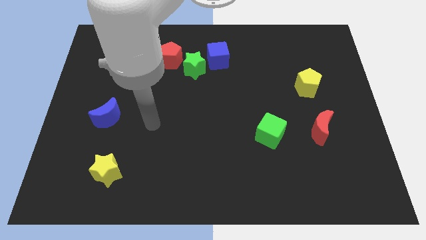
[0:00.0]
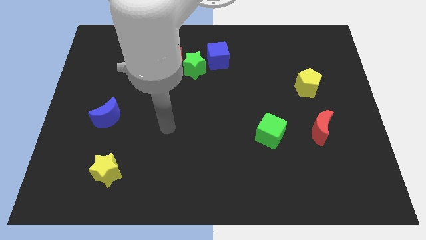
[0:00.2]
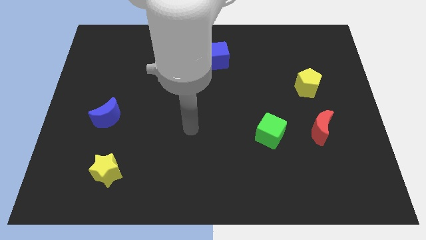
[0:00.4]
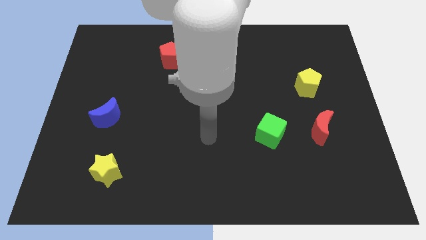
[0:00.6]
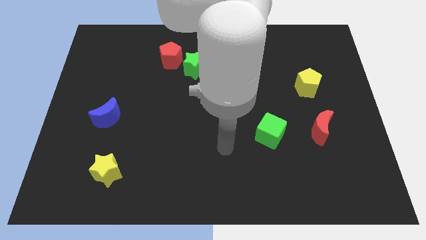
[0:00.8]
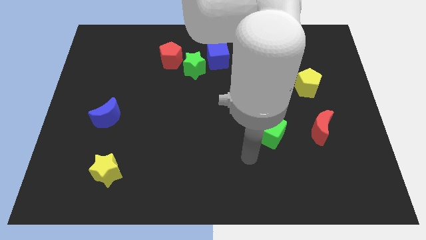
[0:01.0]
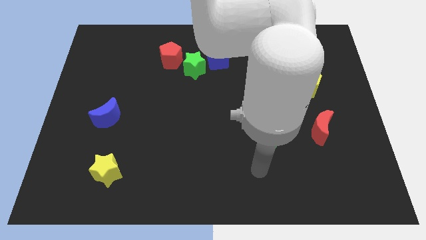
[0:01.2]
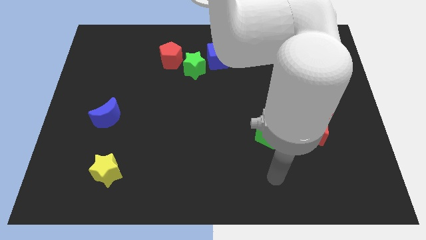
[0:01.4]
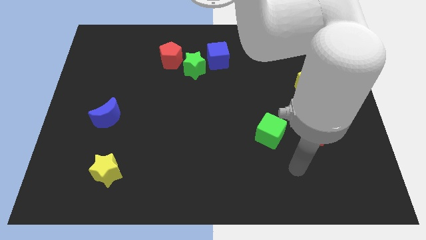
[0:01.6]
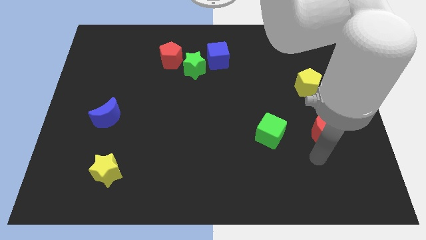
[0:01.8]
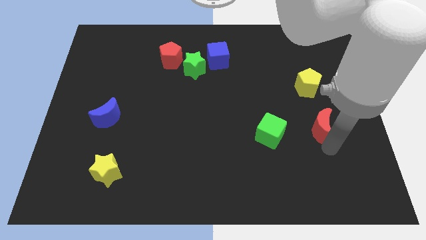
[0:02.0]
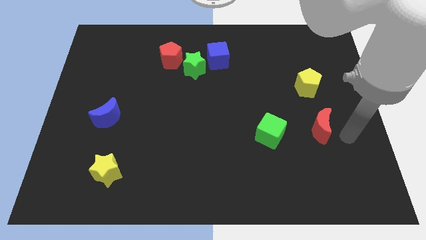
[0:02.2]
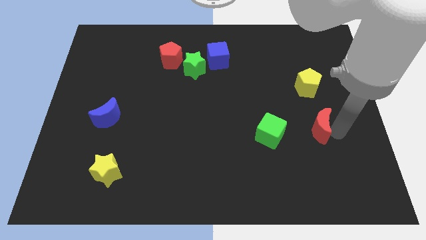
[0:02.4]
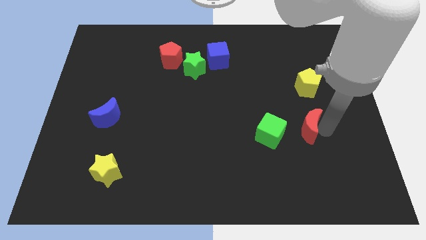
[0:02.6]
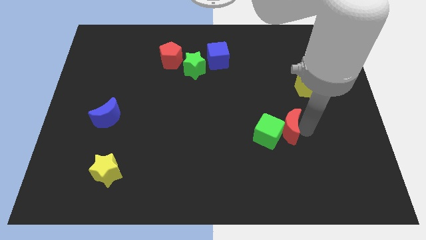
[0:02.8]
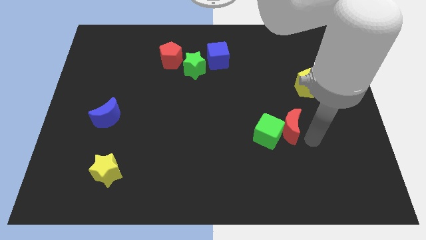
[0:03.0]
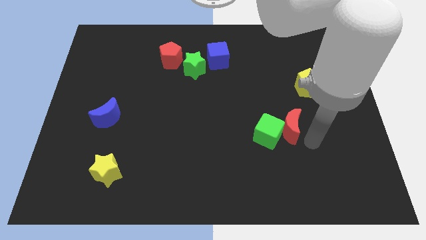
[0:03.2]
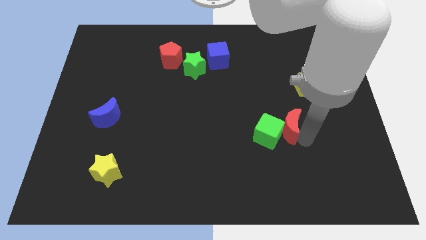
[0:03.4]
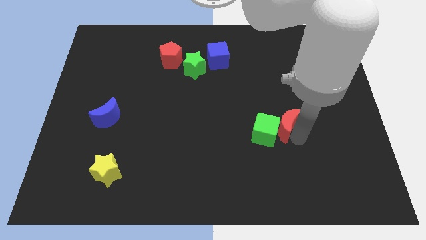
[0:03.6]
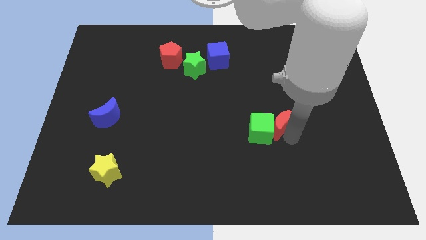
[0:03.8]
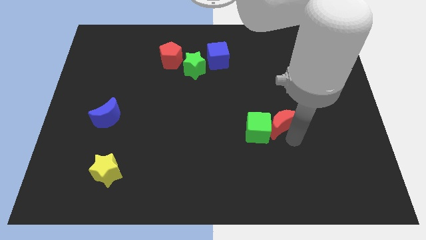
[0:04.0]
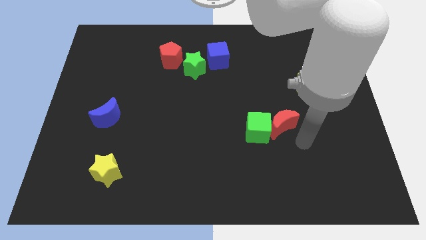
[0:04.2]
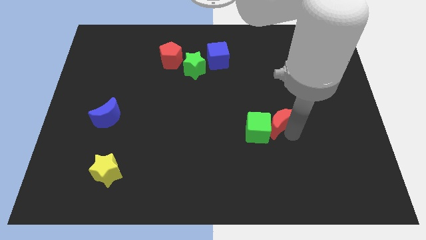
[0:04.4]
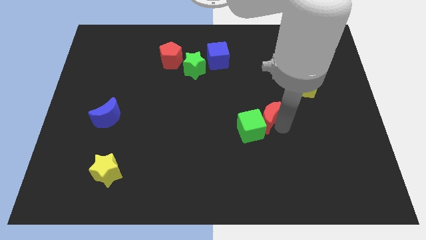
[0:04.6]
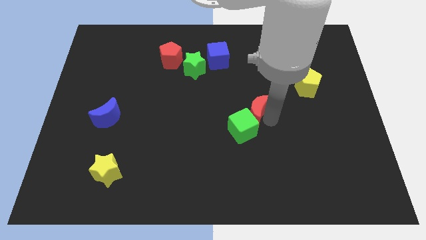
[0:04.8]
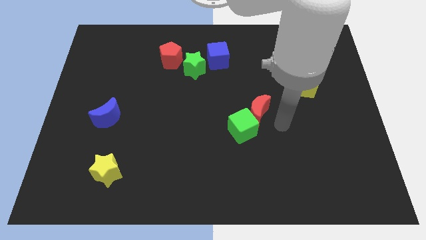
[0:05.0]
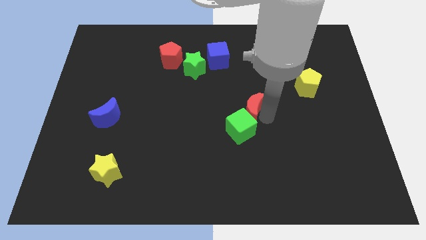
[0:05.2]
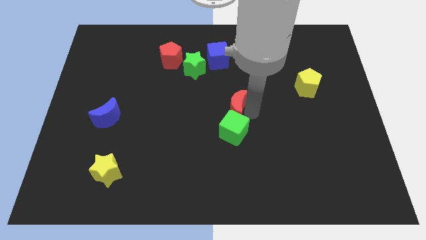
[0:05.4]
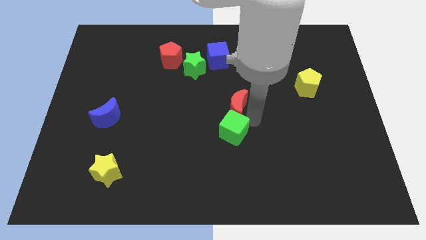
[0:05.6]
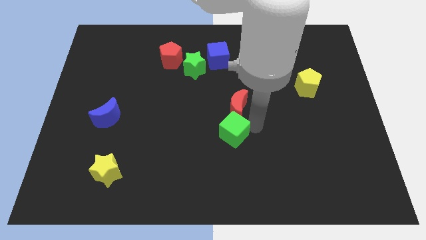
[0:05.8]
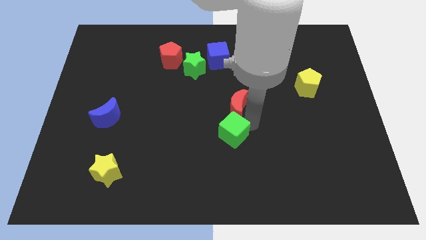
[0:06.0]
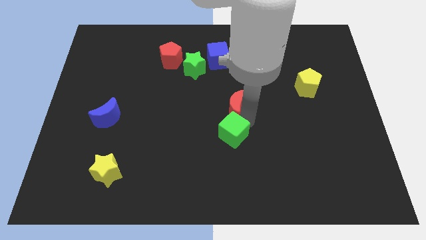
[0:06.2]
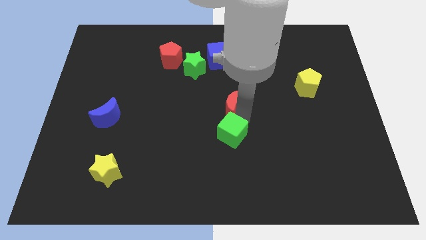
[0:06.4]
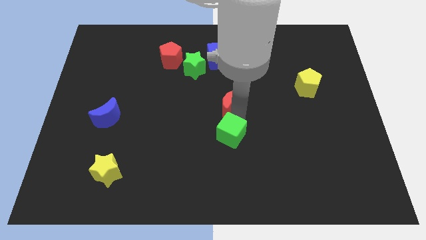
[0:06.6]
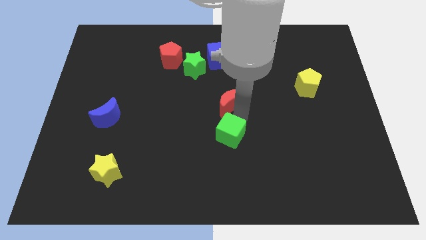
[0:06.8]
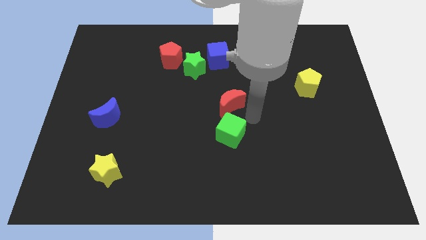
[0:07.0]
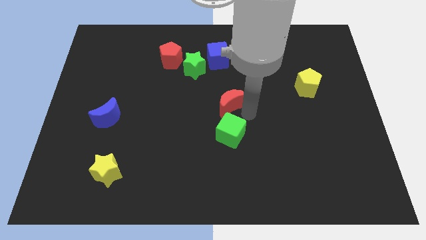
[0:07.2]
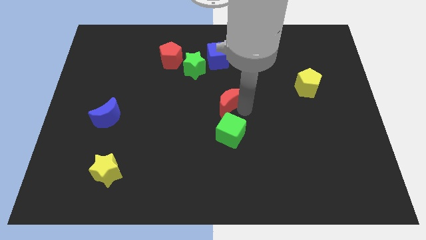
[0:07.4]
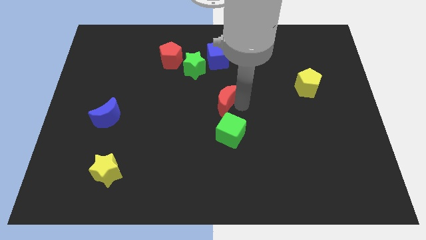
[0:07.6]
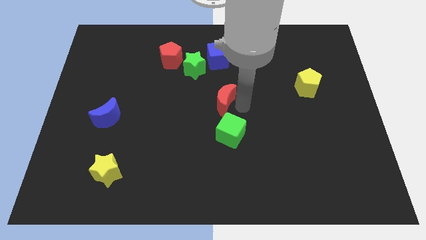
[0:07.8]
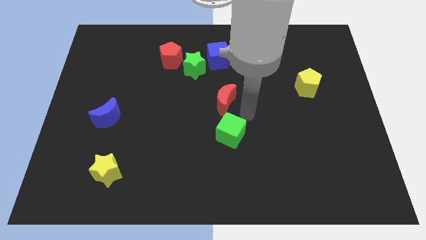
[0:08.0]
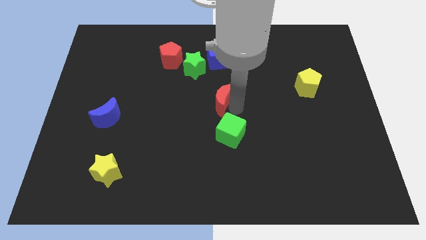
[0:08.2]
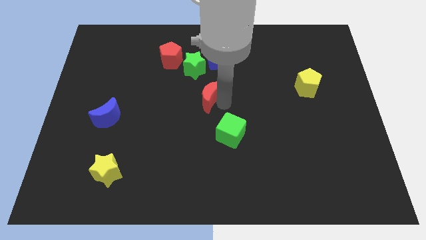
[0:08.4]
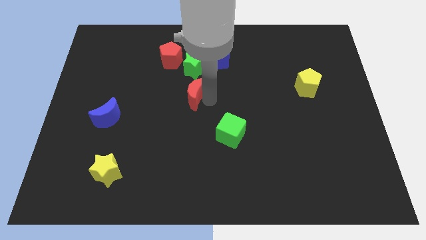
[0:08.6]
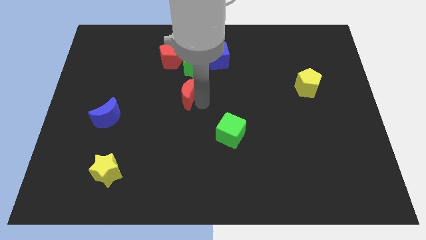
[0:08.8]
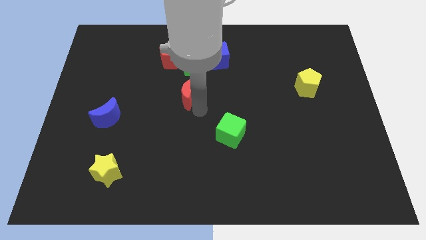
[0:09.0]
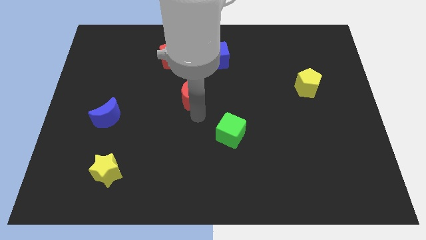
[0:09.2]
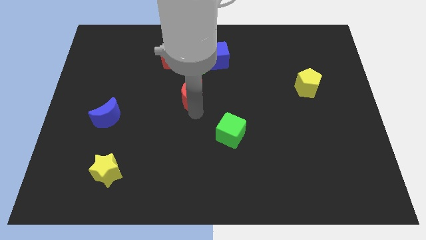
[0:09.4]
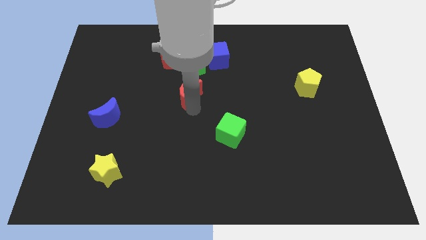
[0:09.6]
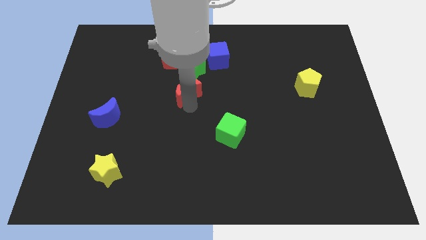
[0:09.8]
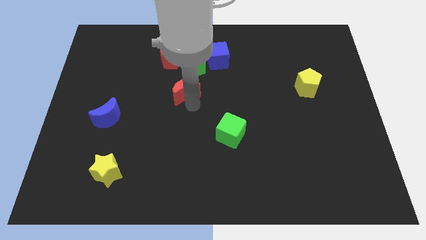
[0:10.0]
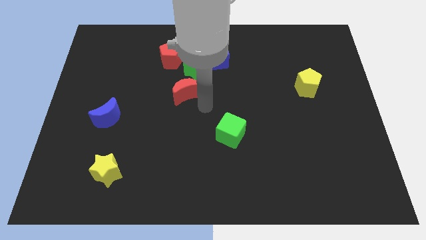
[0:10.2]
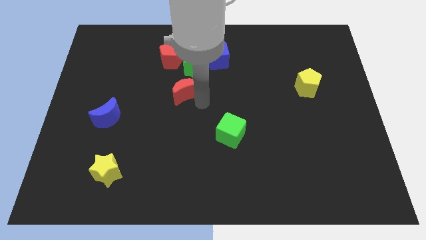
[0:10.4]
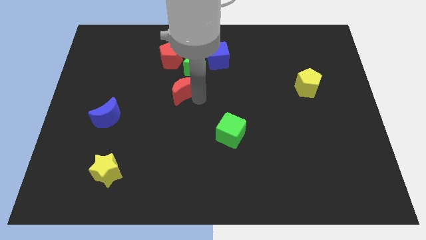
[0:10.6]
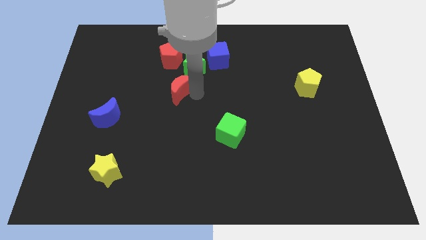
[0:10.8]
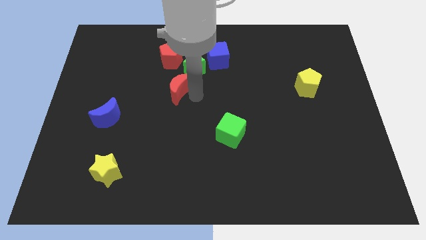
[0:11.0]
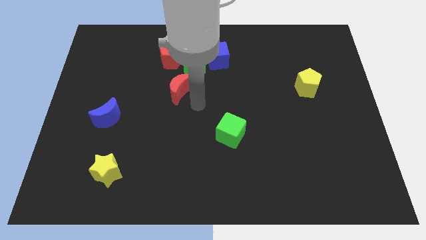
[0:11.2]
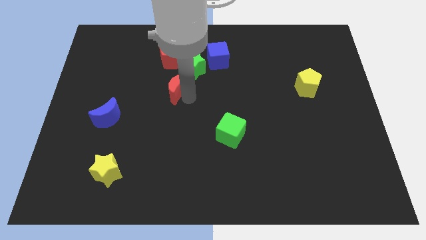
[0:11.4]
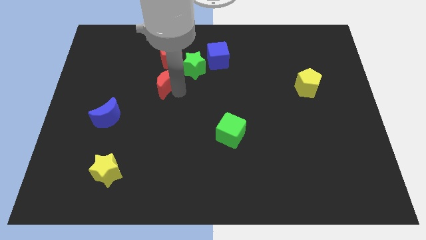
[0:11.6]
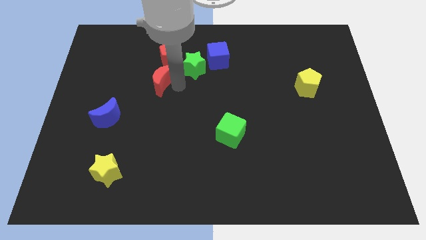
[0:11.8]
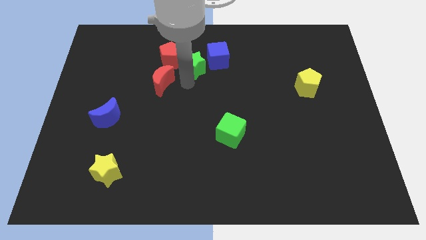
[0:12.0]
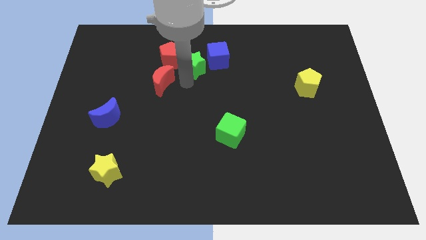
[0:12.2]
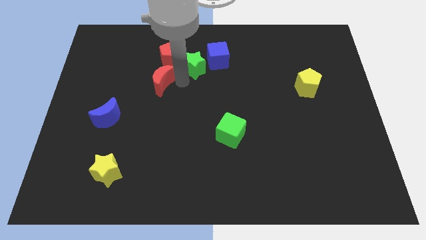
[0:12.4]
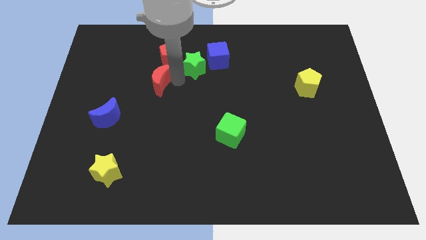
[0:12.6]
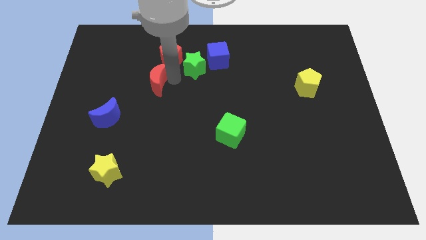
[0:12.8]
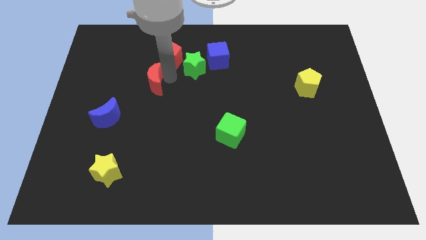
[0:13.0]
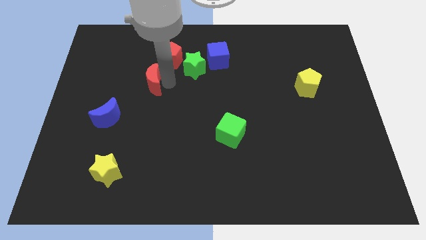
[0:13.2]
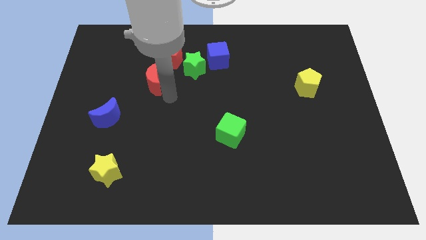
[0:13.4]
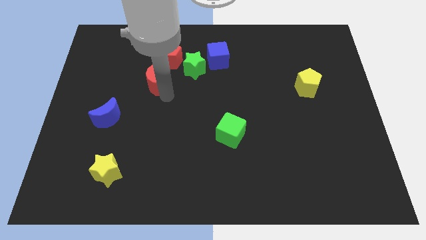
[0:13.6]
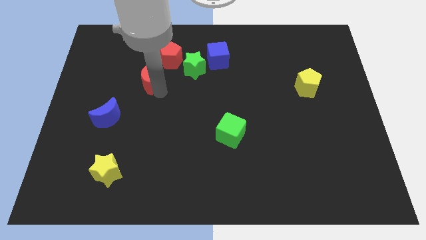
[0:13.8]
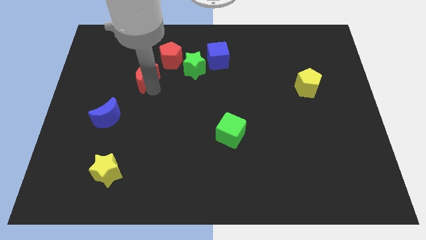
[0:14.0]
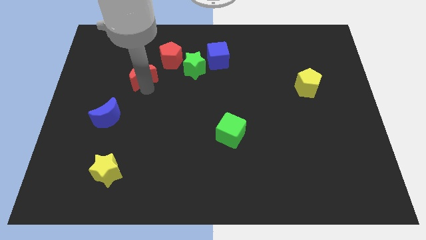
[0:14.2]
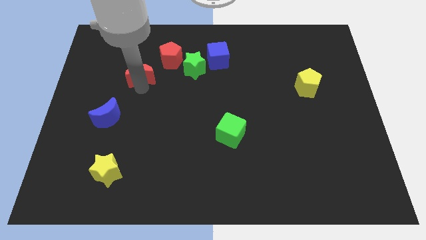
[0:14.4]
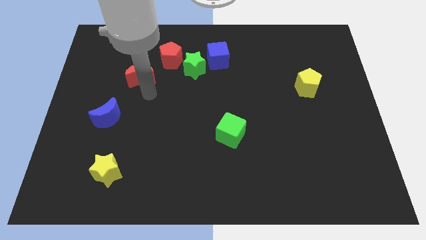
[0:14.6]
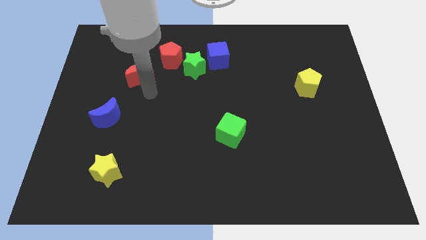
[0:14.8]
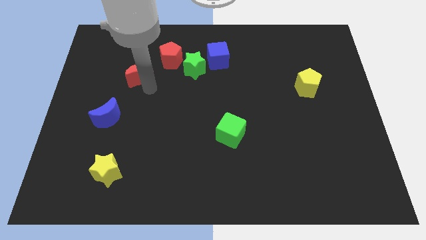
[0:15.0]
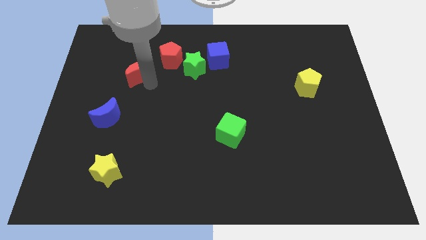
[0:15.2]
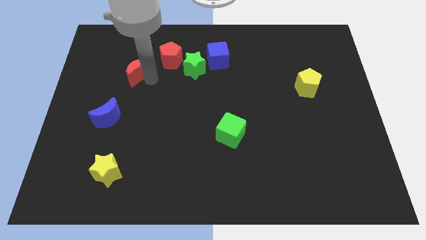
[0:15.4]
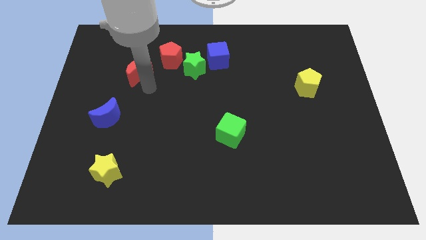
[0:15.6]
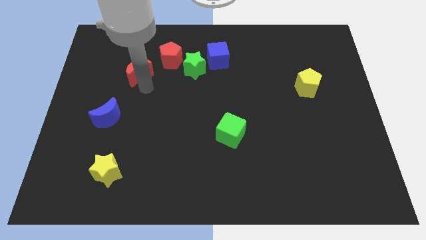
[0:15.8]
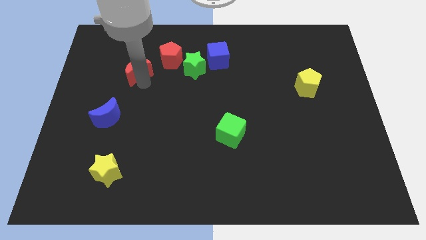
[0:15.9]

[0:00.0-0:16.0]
move the red moon just left of the red pentagon
